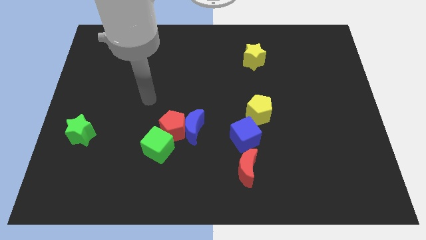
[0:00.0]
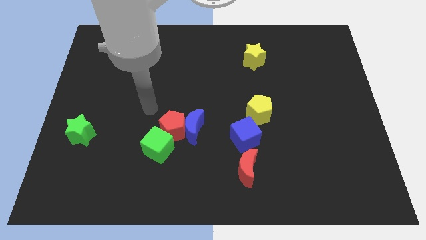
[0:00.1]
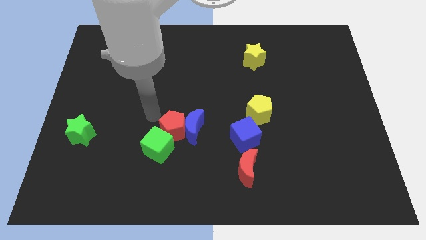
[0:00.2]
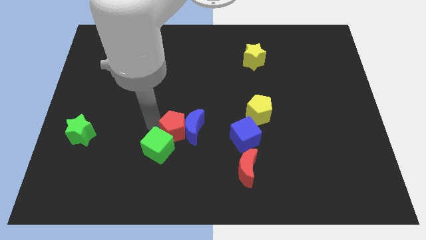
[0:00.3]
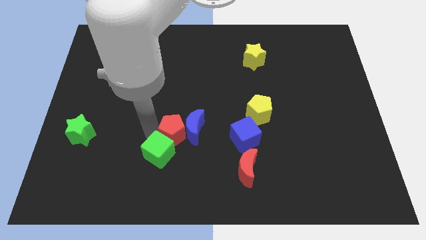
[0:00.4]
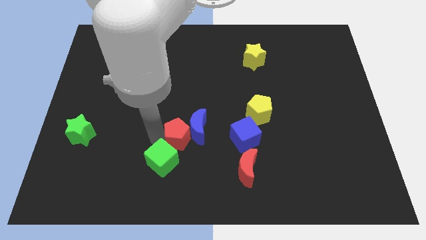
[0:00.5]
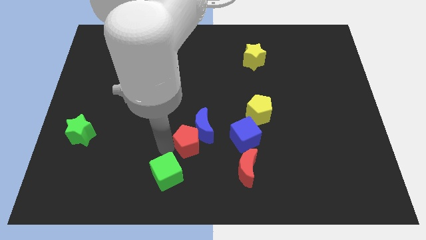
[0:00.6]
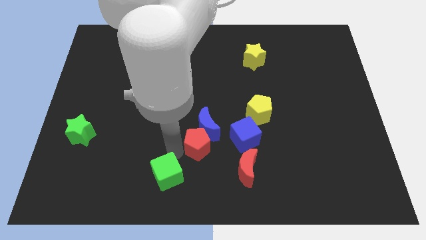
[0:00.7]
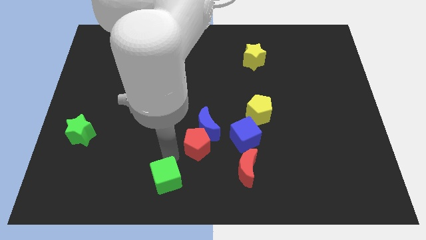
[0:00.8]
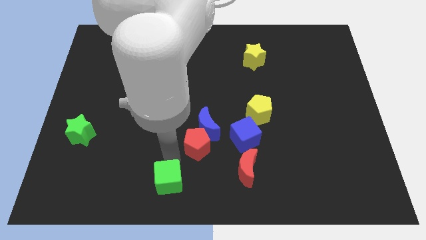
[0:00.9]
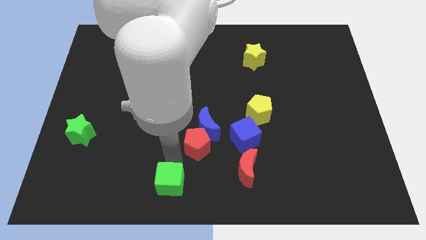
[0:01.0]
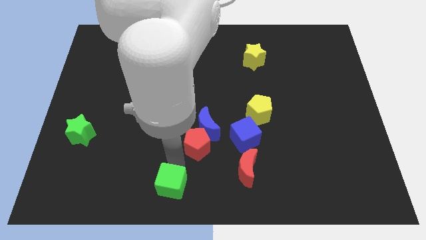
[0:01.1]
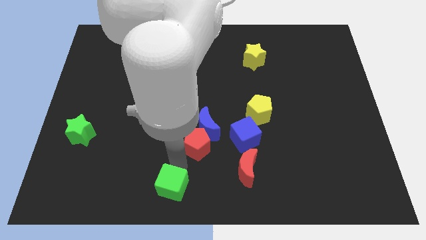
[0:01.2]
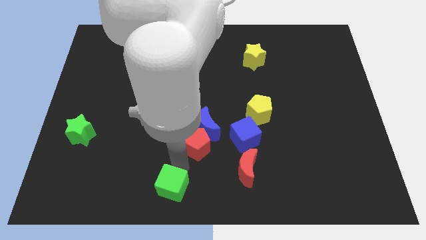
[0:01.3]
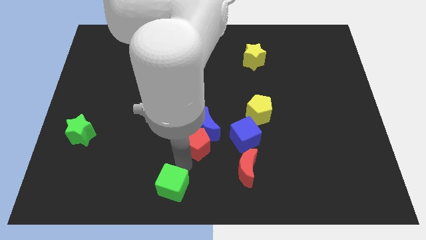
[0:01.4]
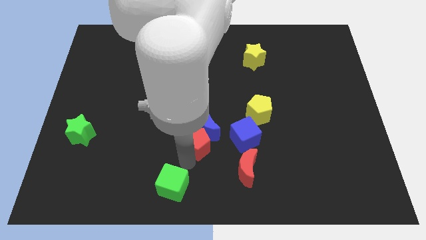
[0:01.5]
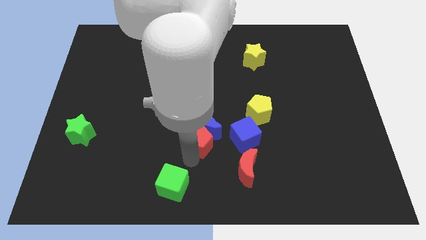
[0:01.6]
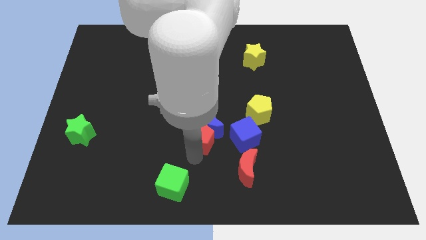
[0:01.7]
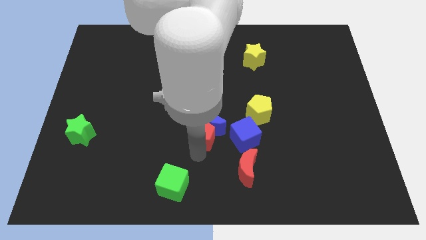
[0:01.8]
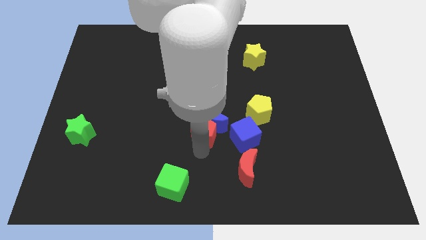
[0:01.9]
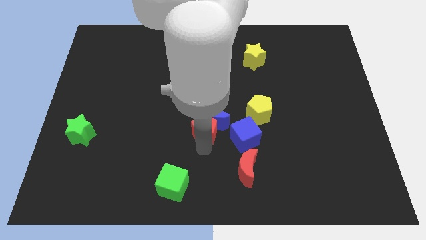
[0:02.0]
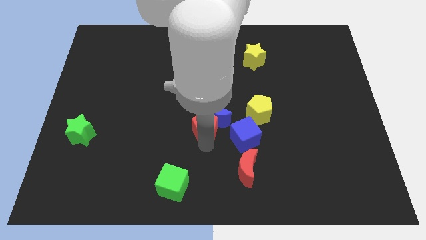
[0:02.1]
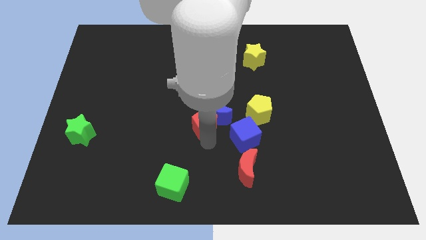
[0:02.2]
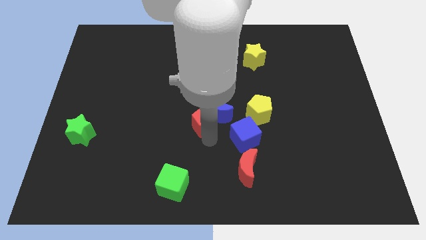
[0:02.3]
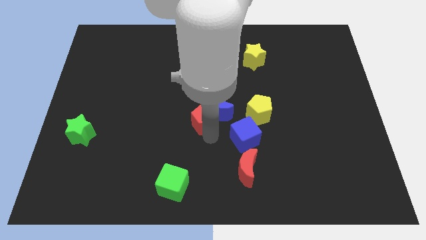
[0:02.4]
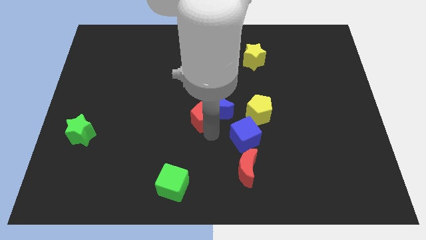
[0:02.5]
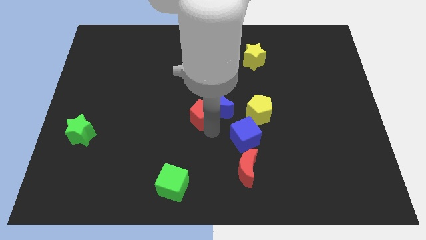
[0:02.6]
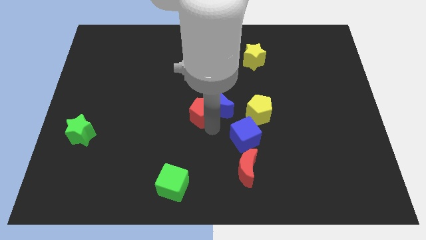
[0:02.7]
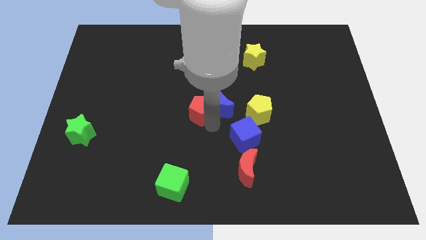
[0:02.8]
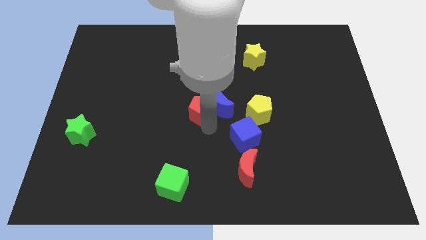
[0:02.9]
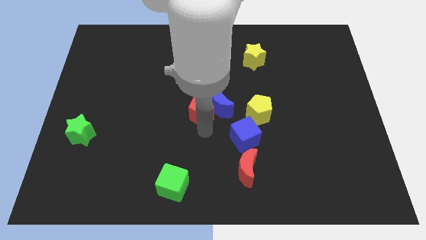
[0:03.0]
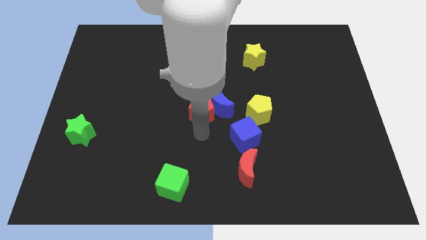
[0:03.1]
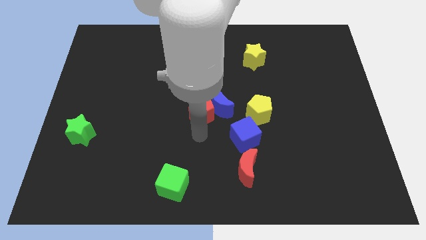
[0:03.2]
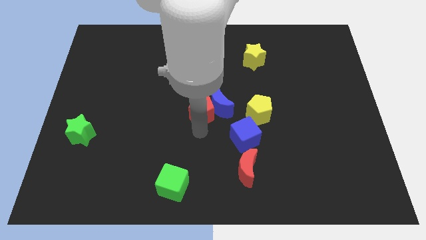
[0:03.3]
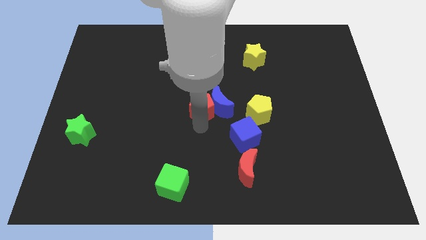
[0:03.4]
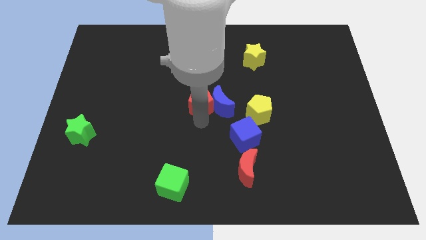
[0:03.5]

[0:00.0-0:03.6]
separate the red pentagon from the blue moon and green cube

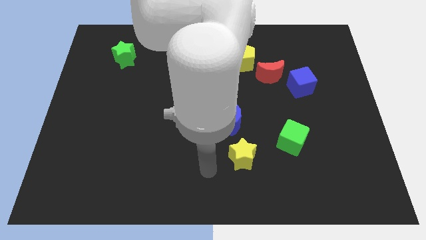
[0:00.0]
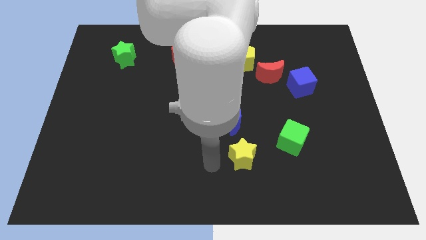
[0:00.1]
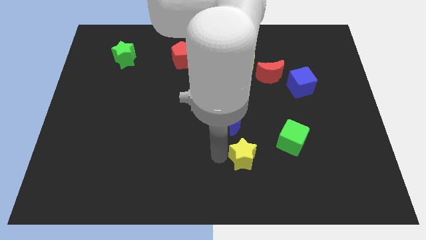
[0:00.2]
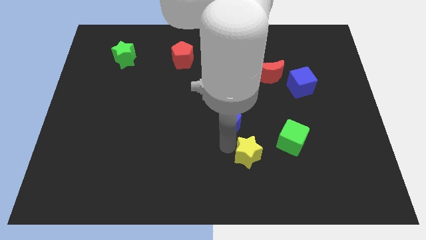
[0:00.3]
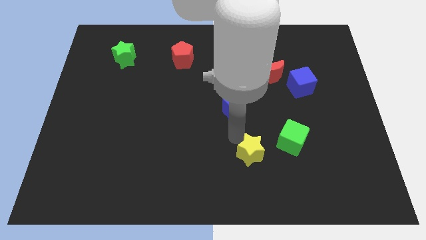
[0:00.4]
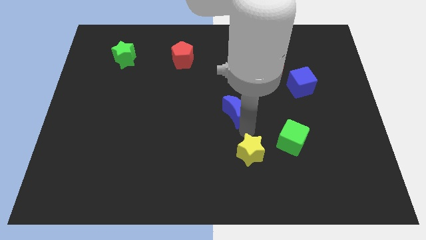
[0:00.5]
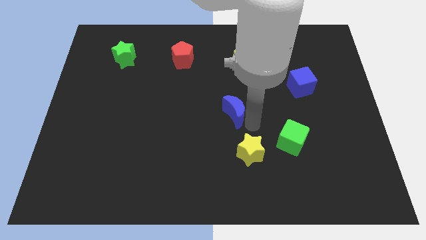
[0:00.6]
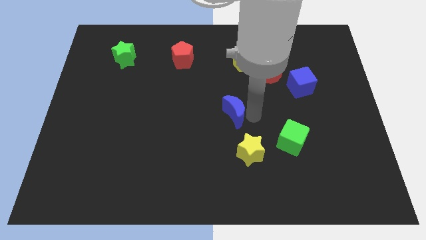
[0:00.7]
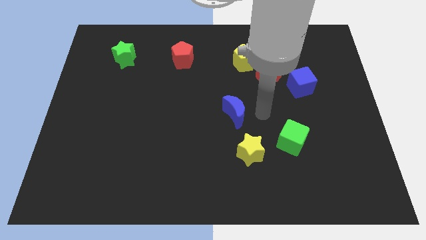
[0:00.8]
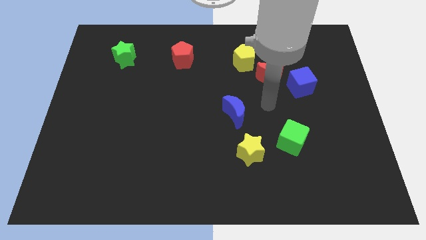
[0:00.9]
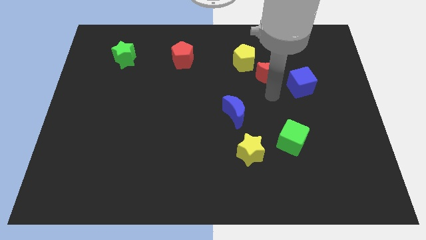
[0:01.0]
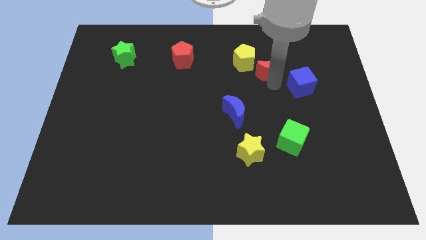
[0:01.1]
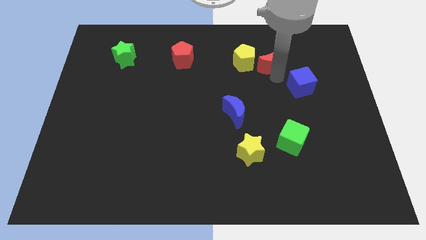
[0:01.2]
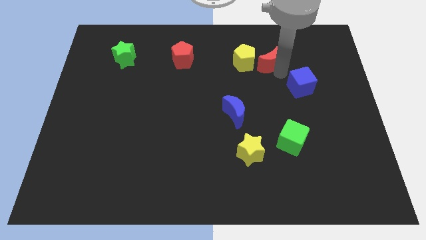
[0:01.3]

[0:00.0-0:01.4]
pull the blue cube apart from the red moon

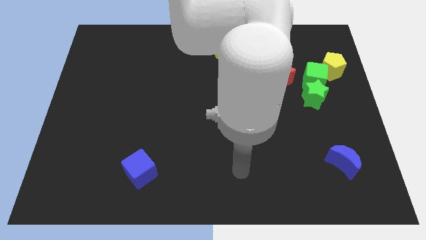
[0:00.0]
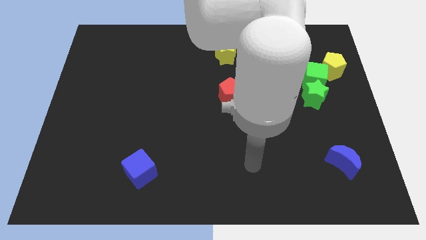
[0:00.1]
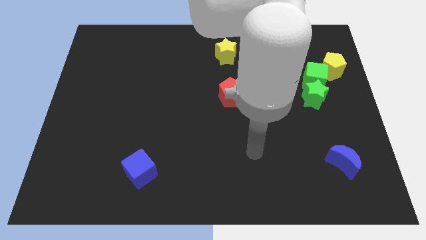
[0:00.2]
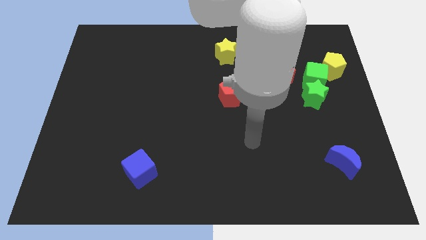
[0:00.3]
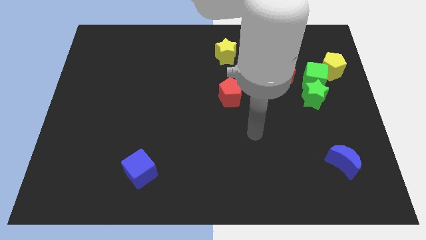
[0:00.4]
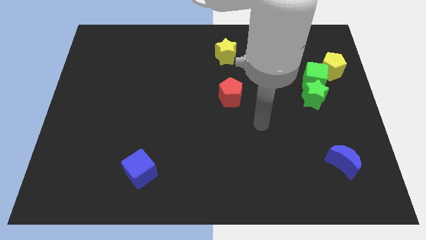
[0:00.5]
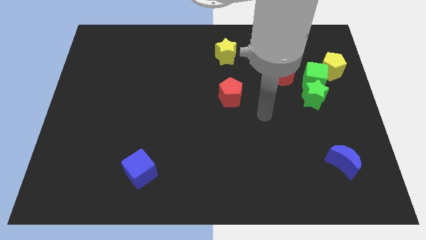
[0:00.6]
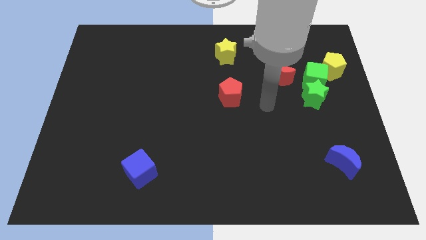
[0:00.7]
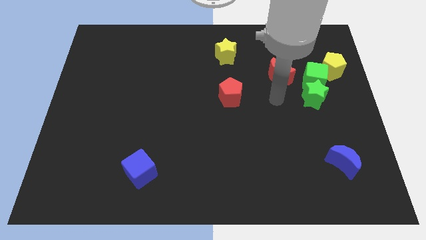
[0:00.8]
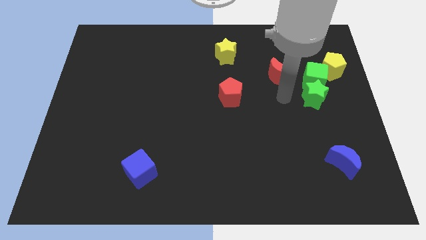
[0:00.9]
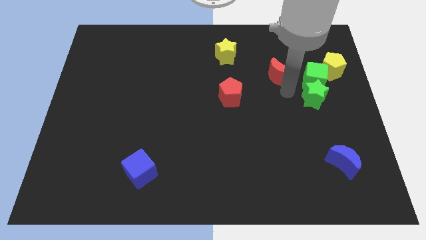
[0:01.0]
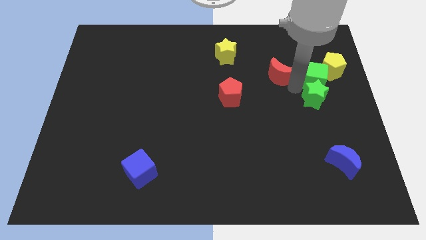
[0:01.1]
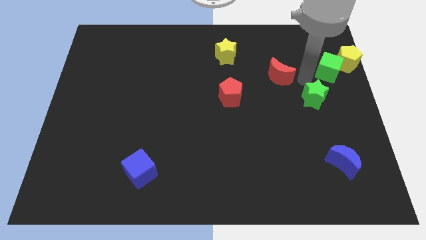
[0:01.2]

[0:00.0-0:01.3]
separate the green star from the green cube

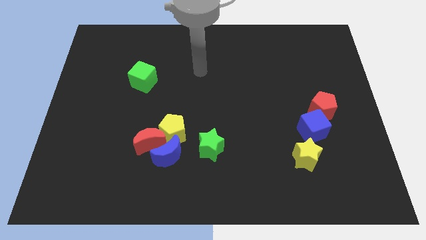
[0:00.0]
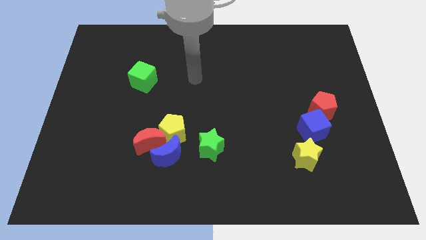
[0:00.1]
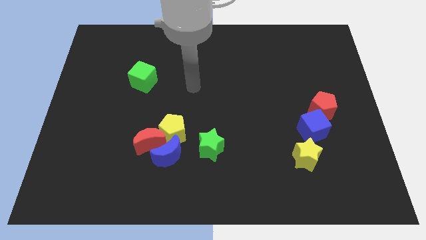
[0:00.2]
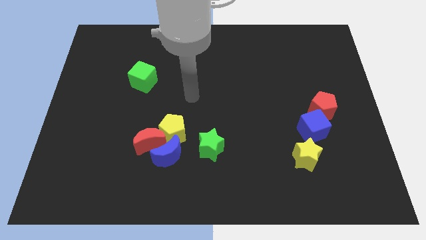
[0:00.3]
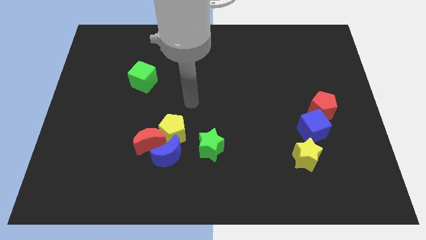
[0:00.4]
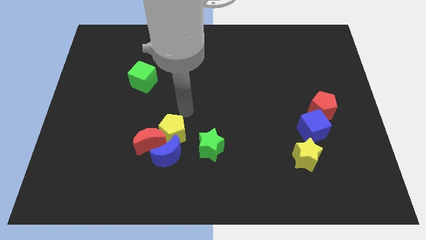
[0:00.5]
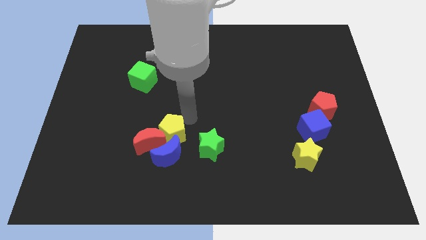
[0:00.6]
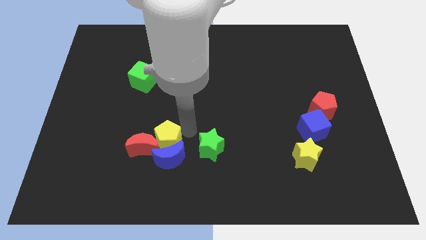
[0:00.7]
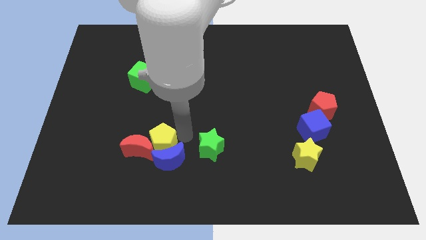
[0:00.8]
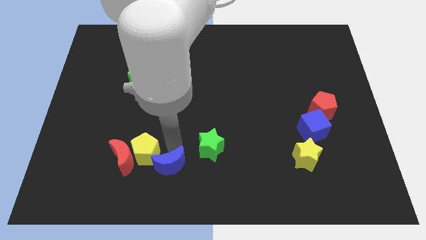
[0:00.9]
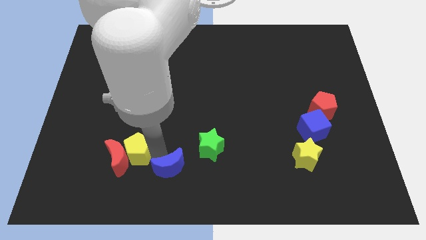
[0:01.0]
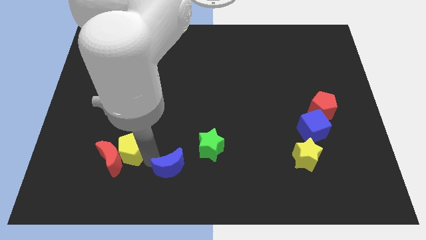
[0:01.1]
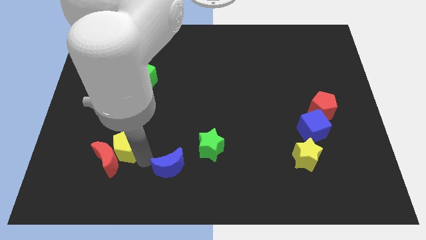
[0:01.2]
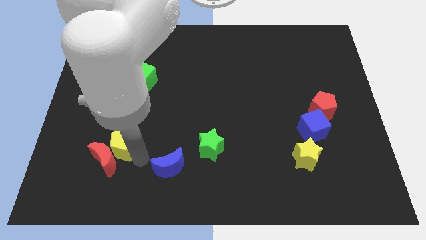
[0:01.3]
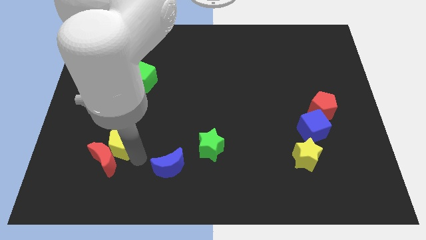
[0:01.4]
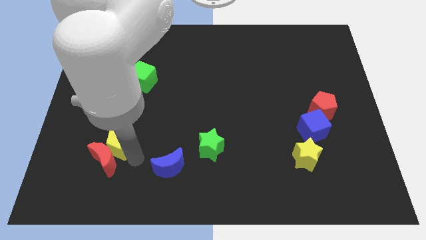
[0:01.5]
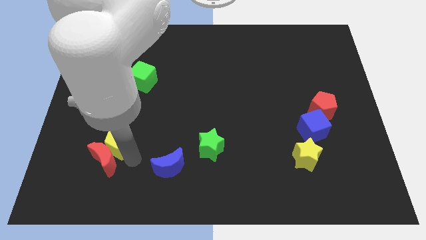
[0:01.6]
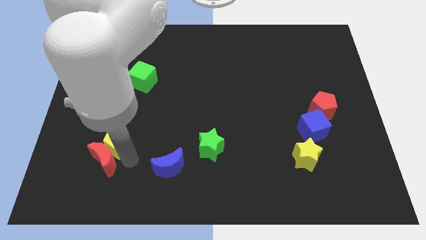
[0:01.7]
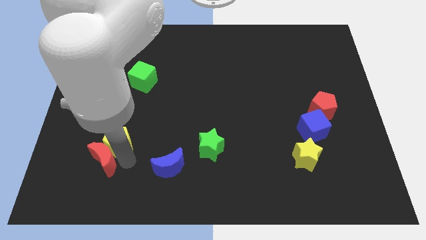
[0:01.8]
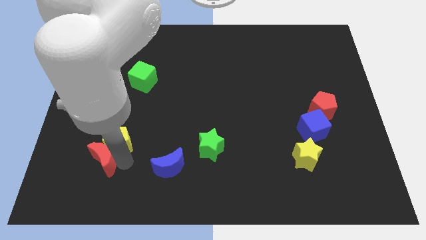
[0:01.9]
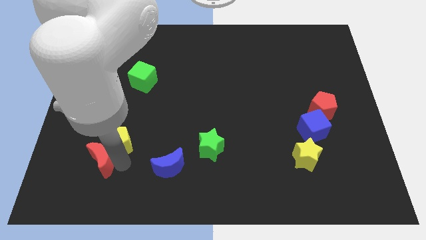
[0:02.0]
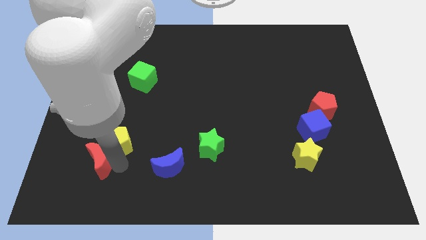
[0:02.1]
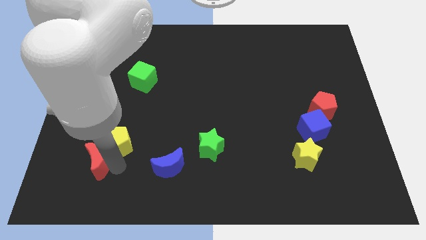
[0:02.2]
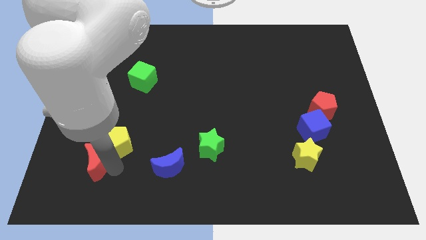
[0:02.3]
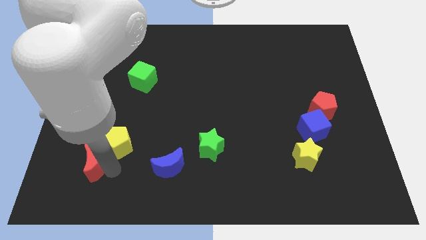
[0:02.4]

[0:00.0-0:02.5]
separate the red moon from the blue moon and yellow pentagon

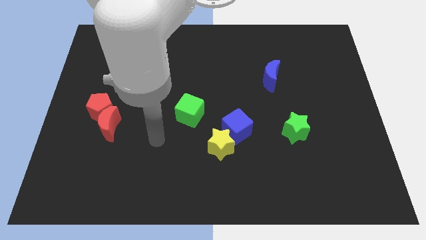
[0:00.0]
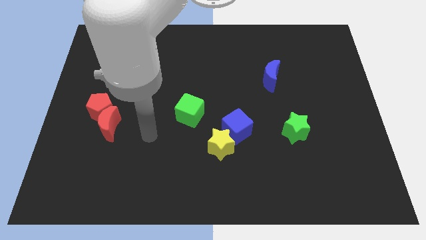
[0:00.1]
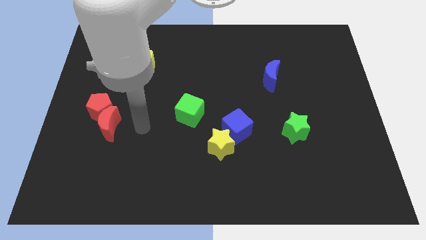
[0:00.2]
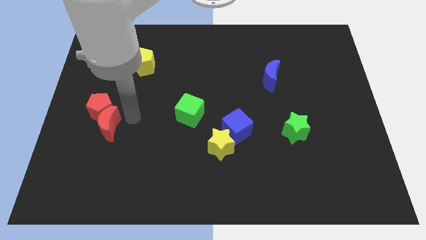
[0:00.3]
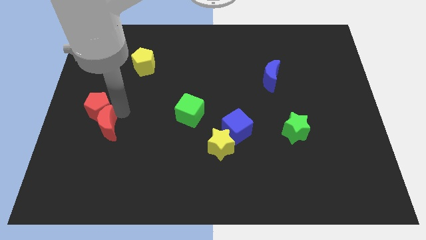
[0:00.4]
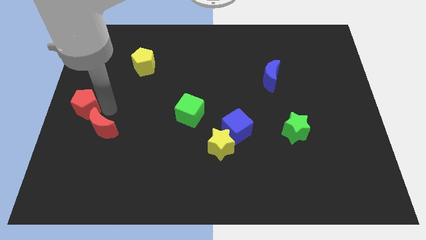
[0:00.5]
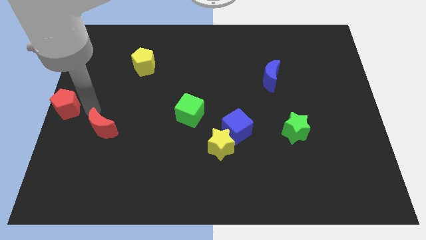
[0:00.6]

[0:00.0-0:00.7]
separate the red moon from the red pentagon

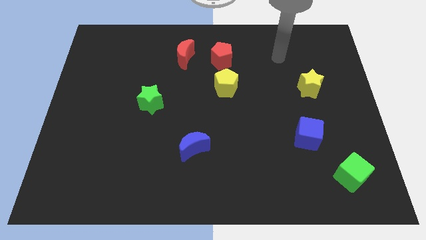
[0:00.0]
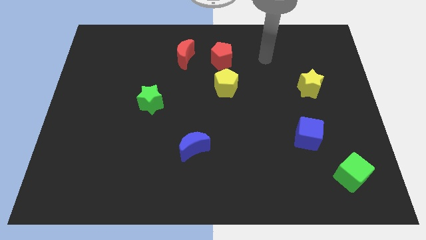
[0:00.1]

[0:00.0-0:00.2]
move the yellow pentagon away from the red pentagon
